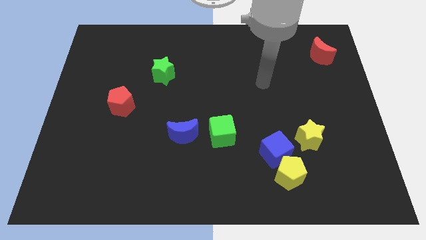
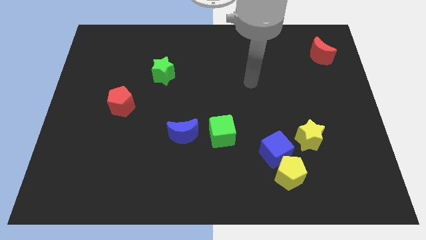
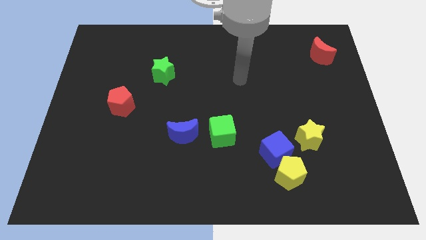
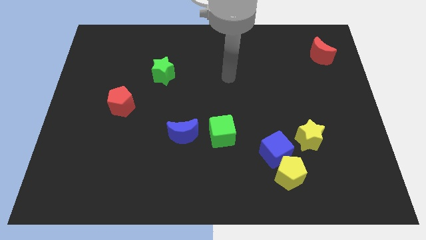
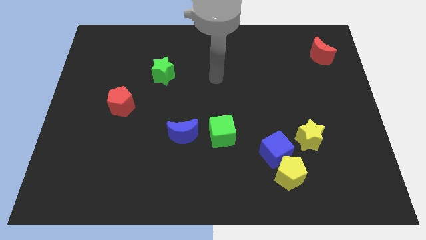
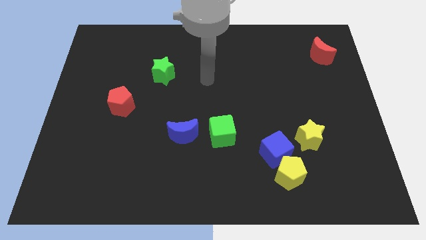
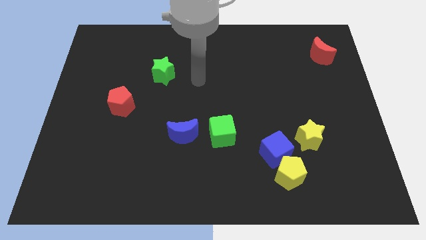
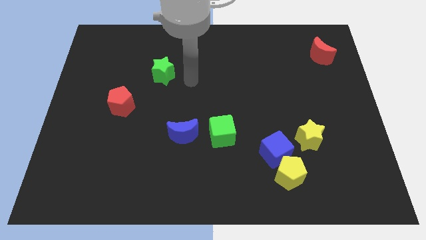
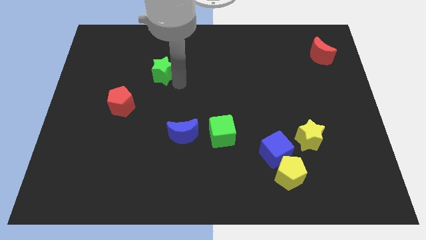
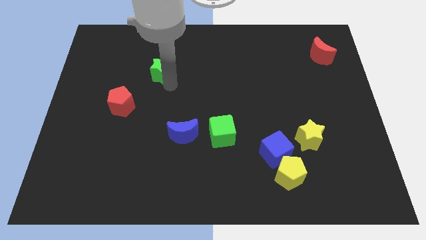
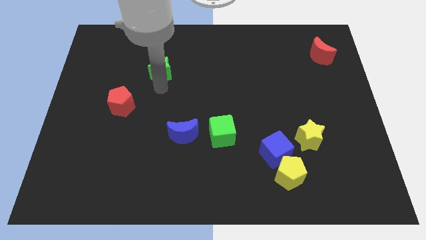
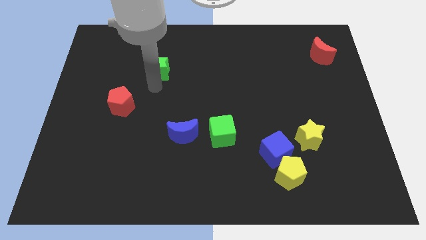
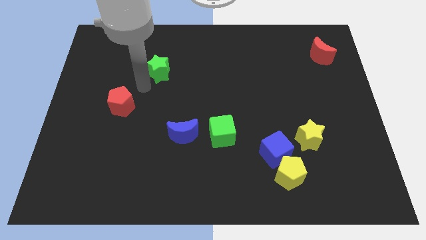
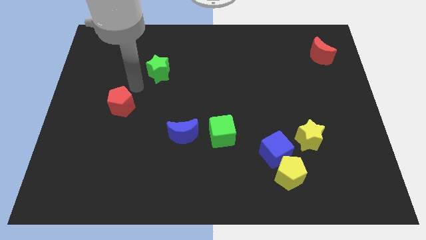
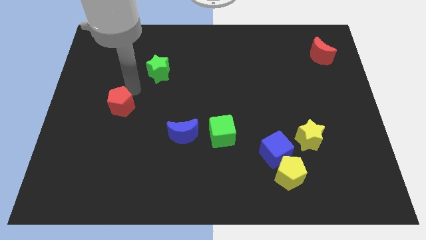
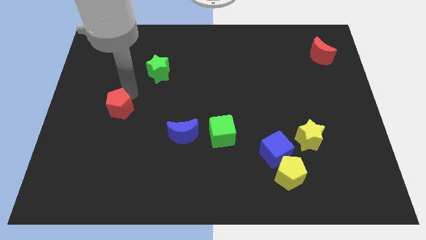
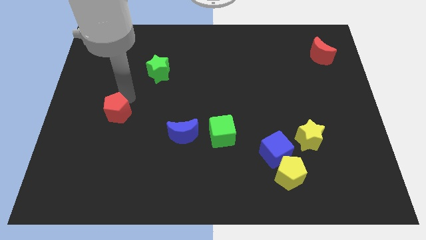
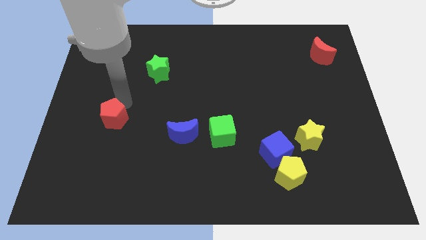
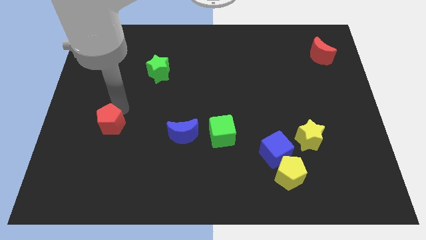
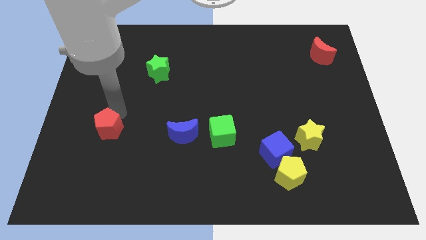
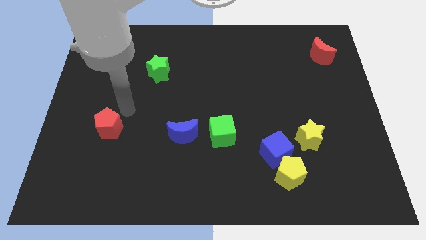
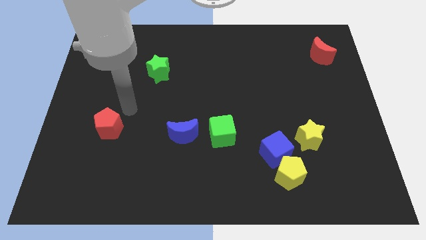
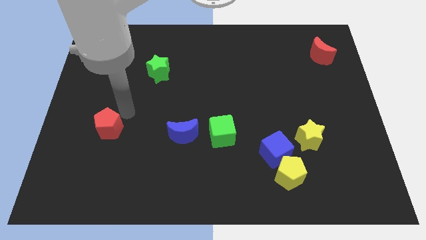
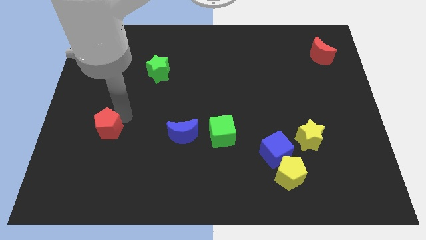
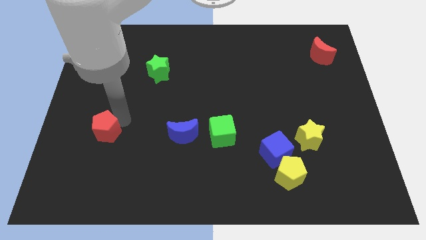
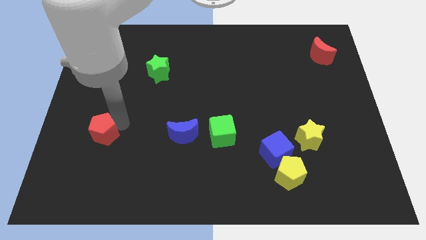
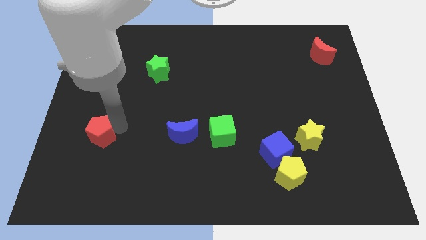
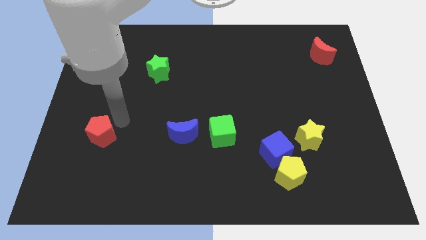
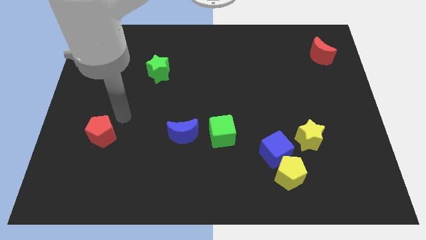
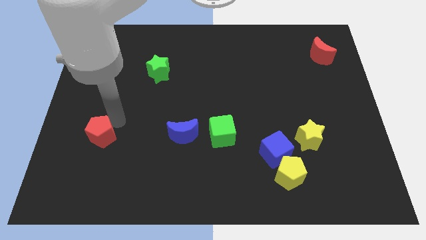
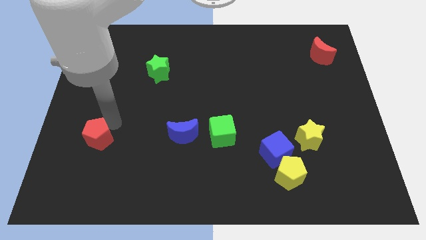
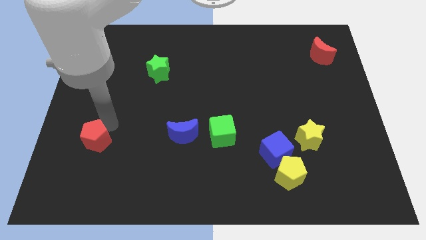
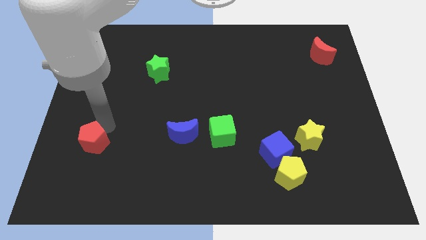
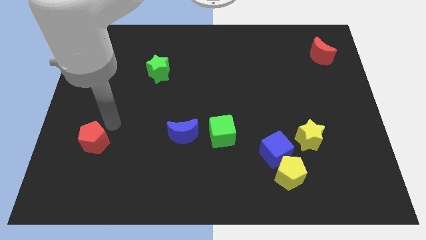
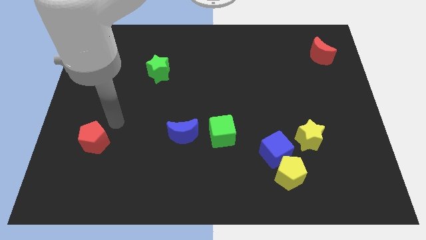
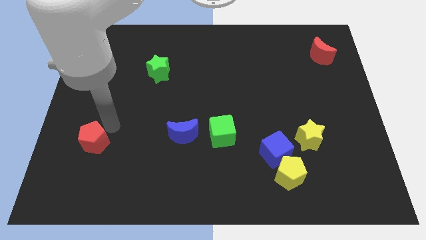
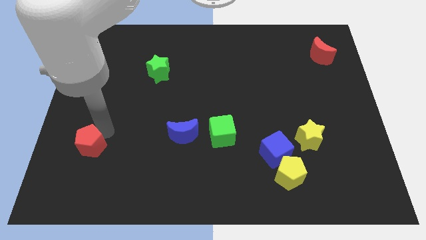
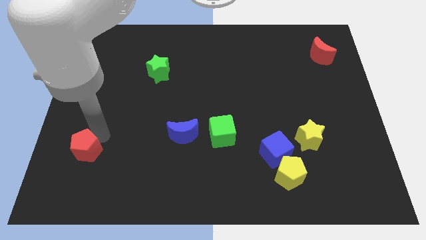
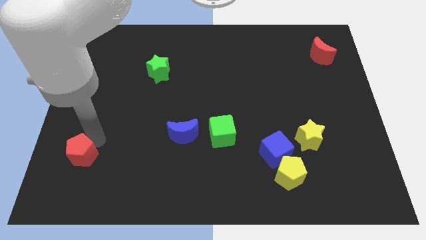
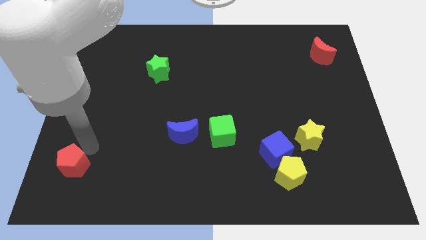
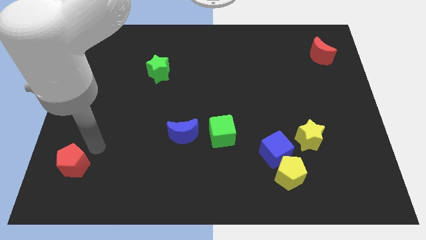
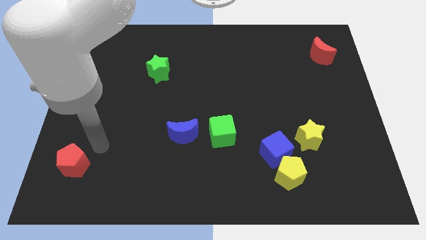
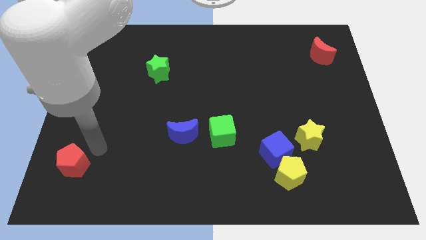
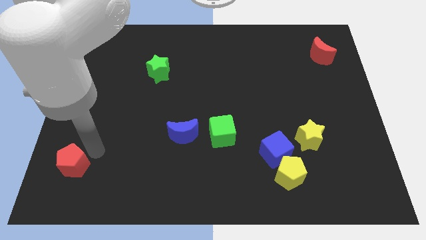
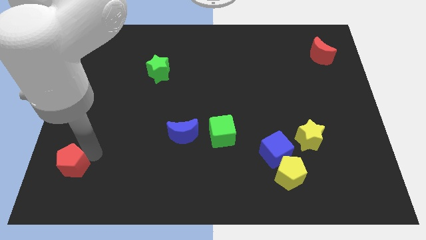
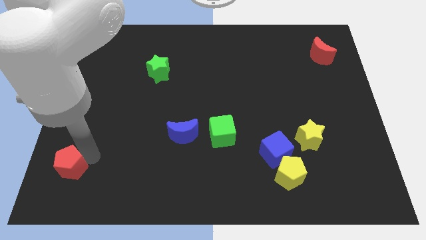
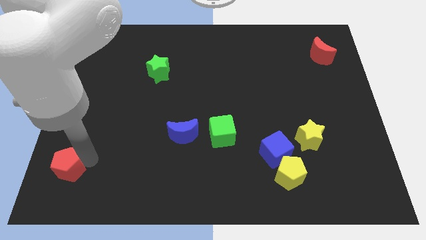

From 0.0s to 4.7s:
slide the red pentagon to the bottom left

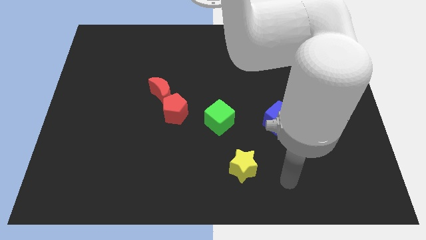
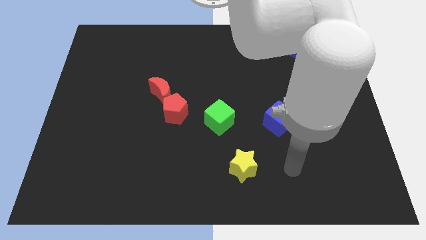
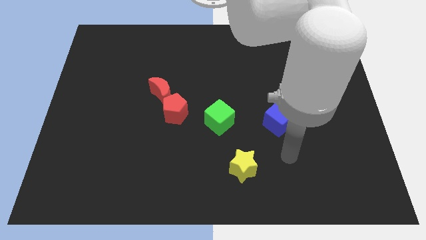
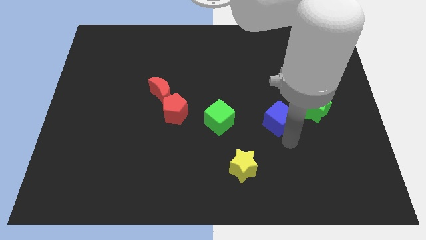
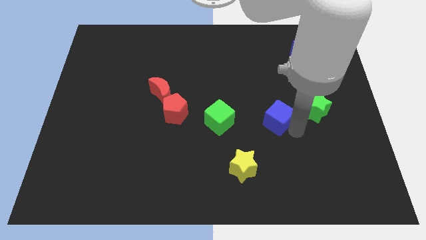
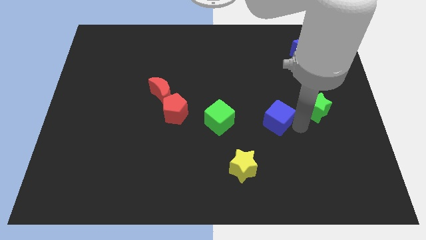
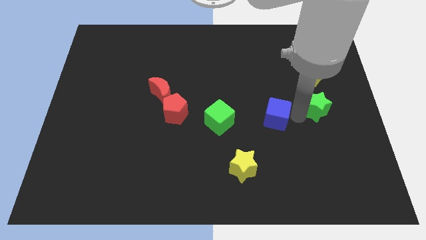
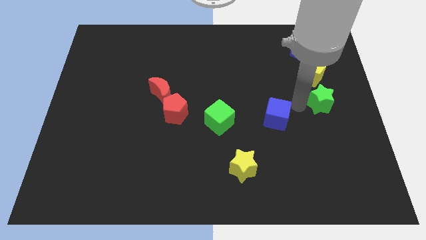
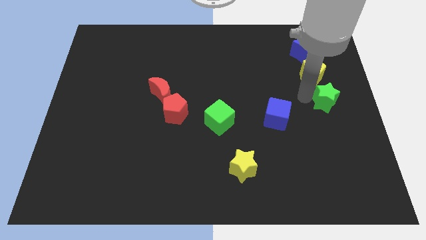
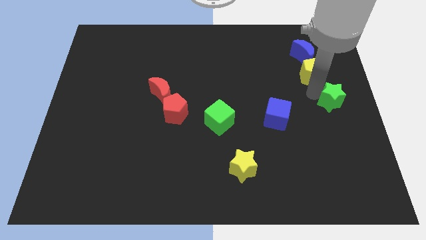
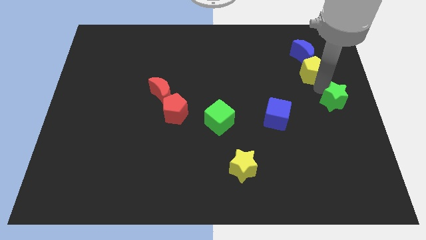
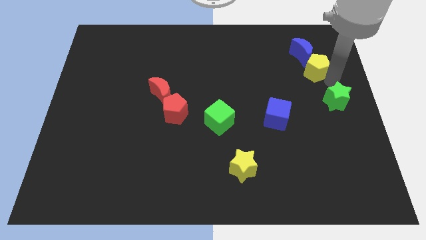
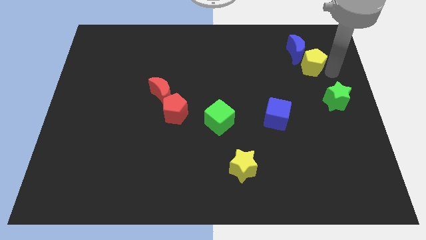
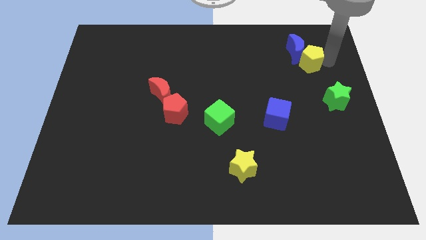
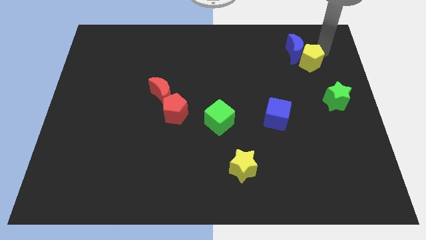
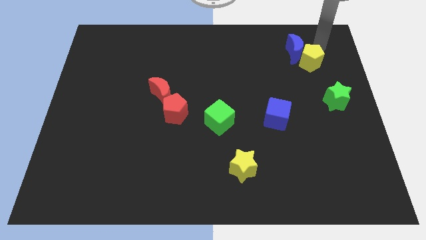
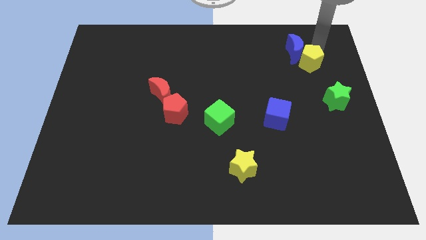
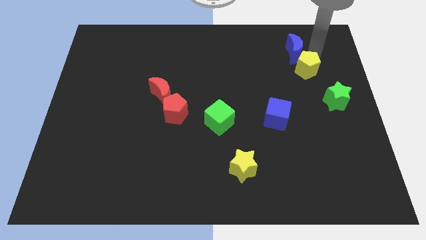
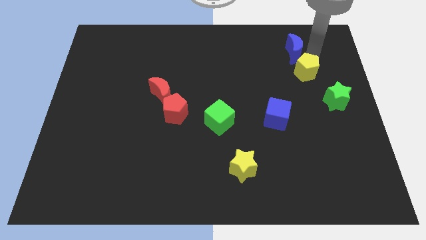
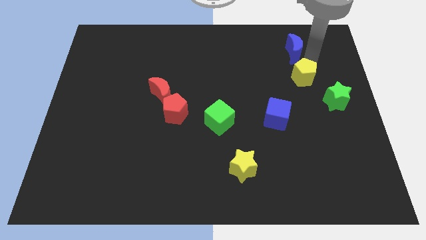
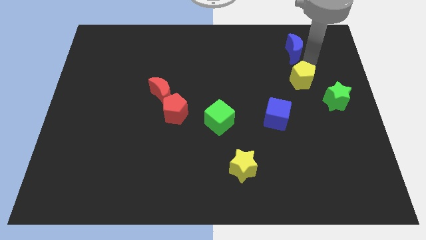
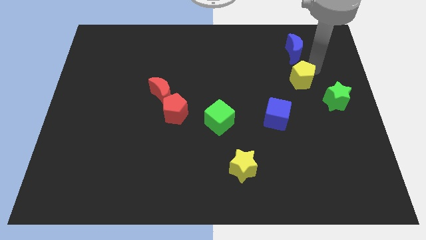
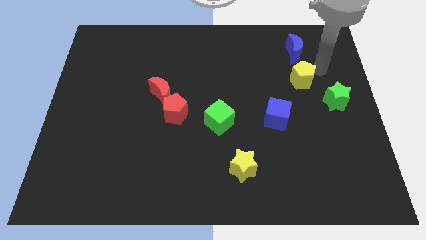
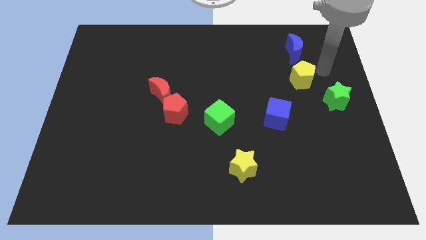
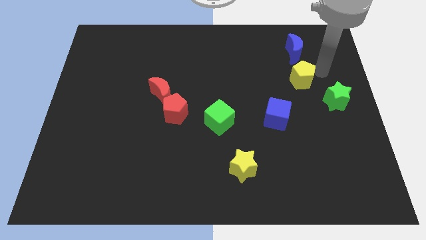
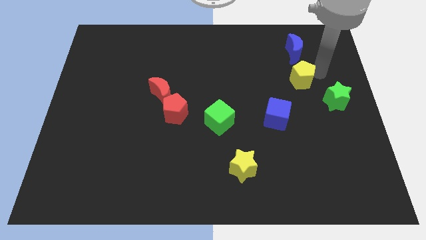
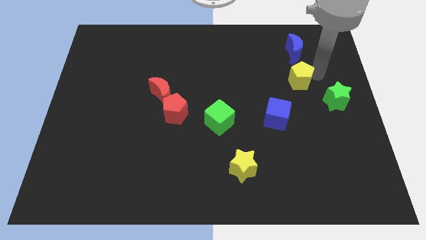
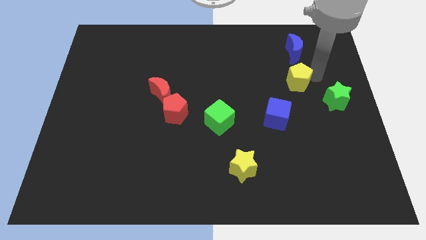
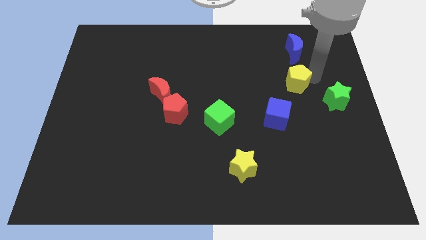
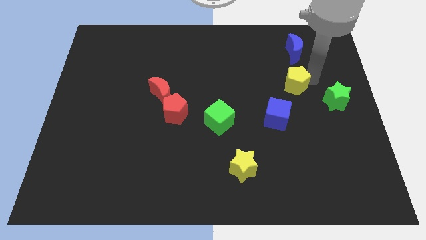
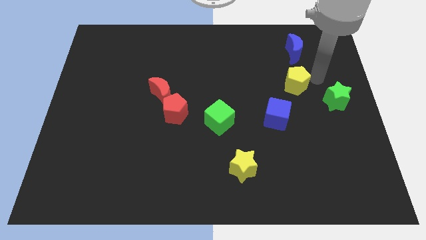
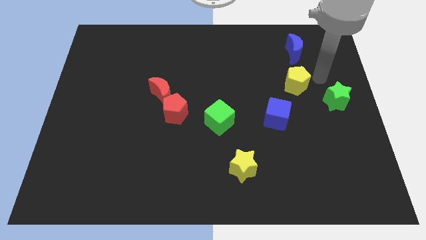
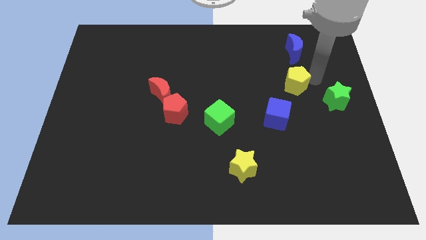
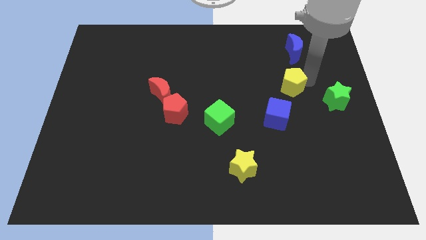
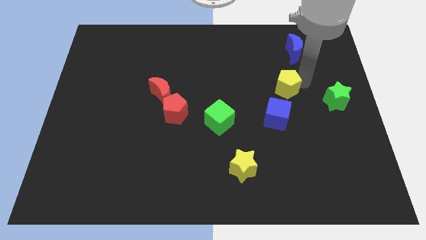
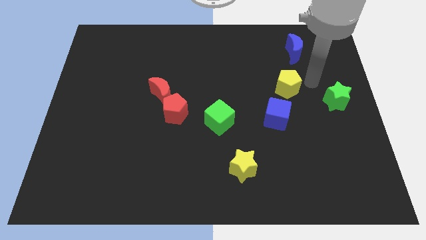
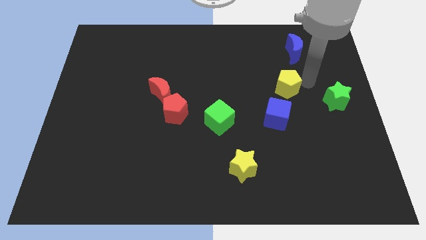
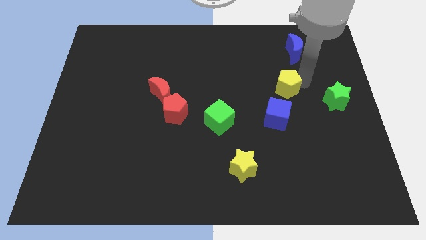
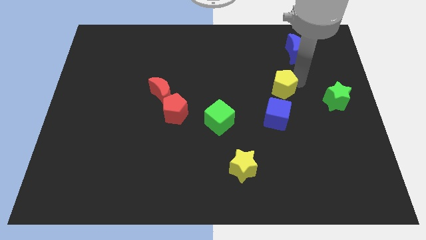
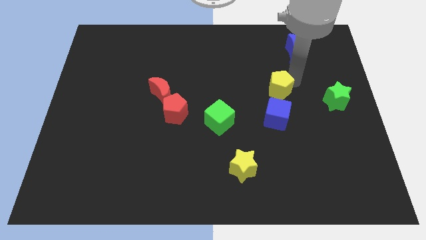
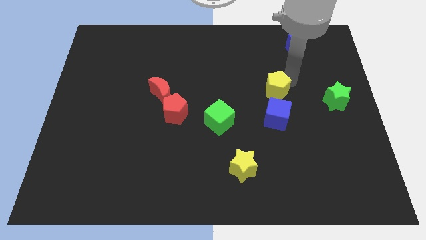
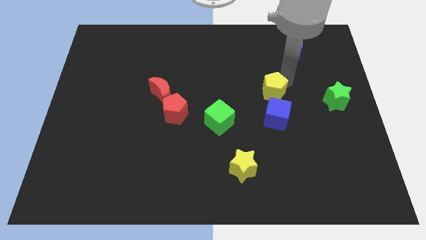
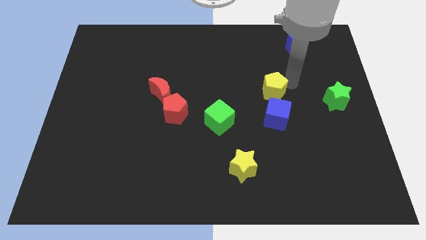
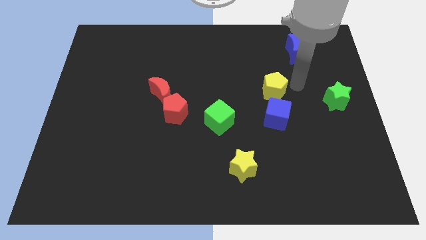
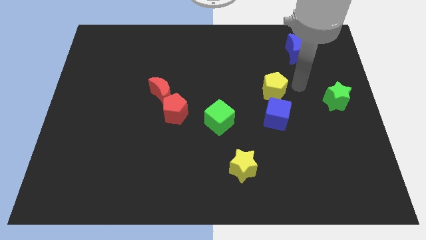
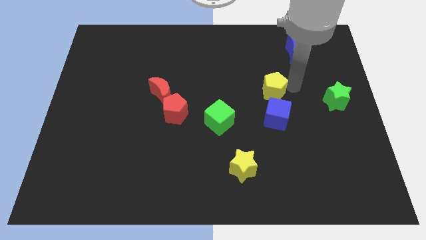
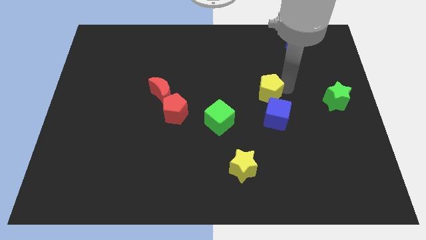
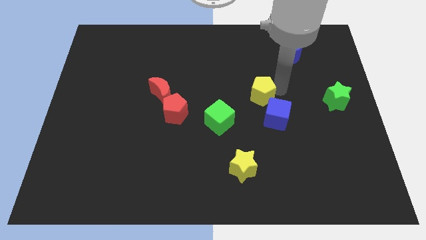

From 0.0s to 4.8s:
put the yellow pentagon to the middle of the board
